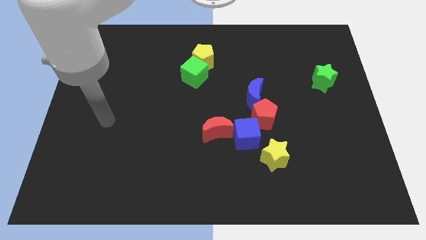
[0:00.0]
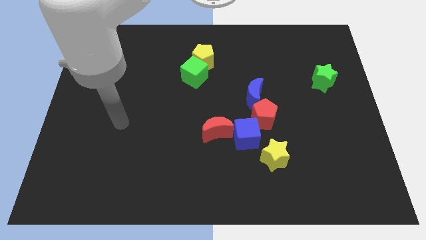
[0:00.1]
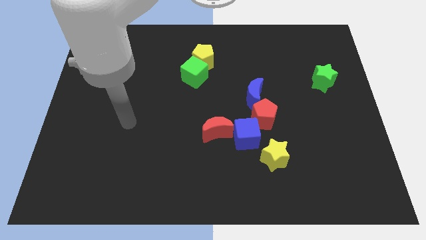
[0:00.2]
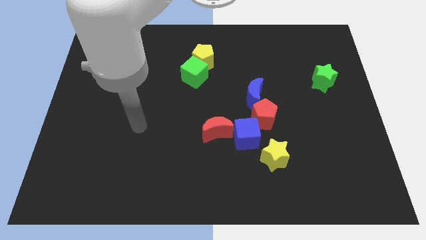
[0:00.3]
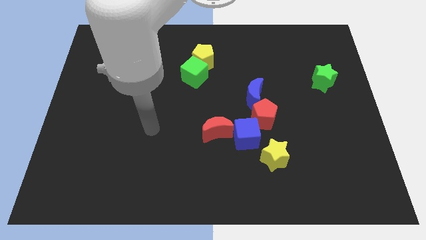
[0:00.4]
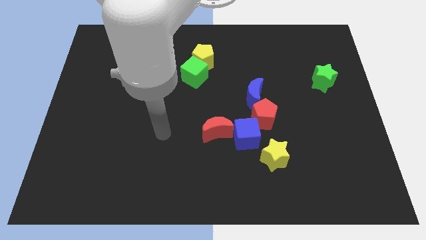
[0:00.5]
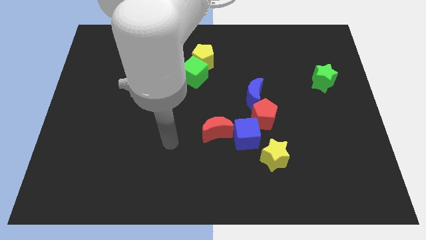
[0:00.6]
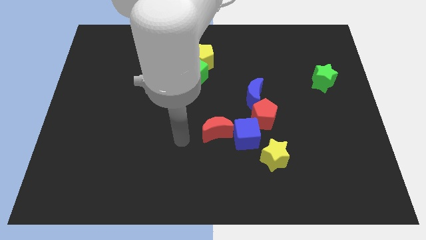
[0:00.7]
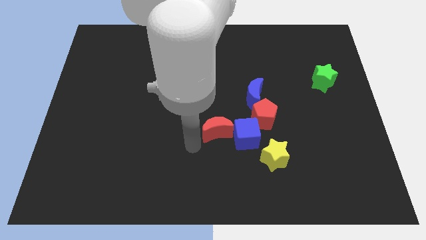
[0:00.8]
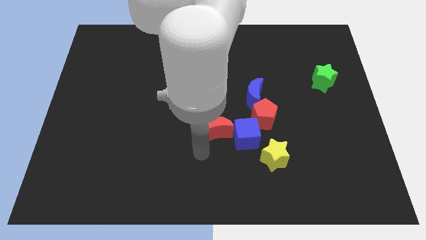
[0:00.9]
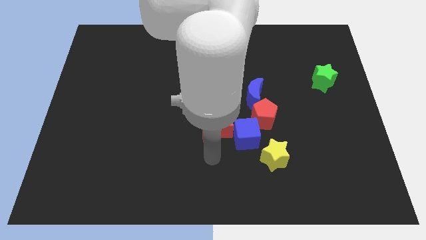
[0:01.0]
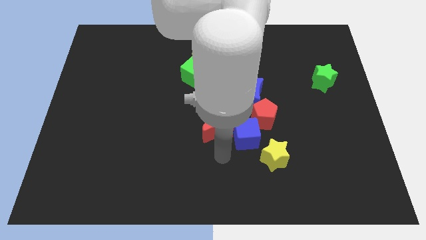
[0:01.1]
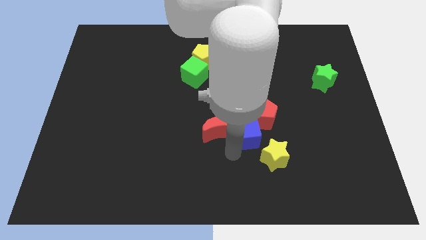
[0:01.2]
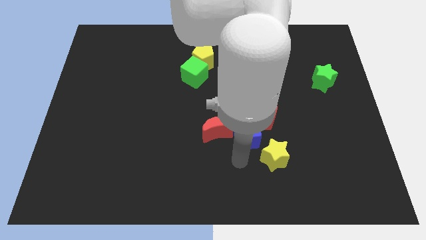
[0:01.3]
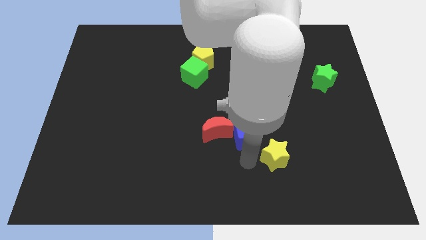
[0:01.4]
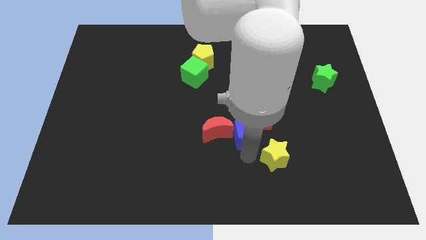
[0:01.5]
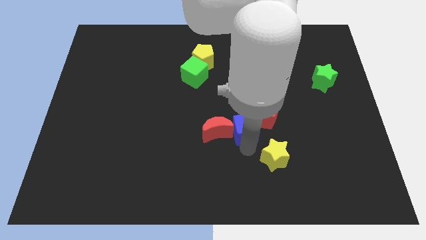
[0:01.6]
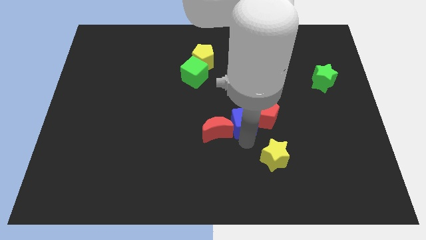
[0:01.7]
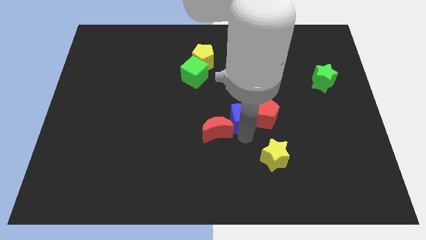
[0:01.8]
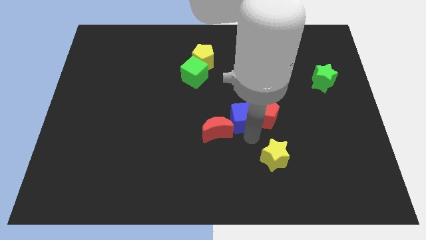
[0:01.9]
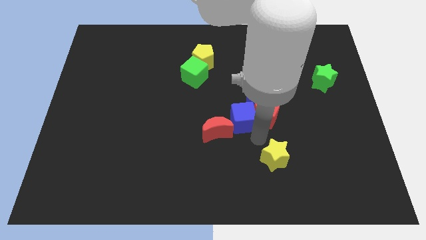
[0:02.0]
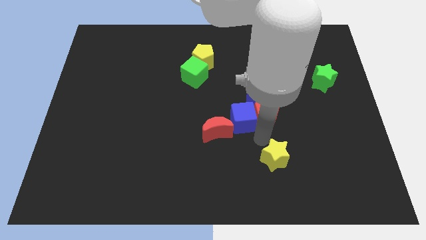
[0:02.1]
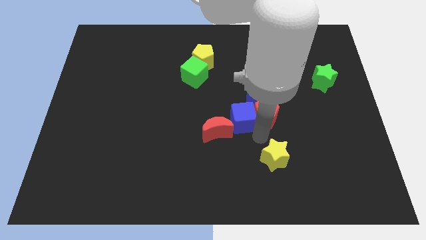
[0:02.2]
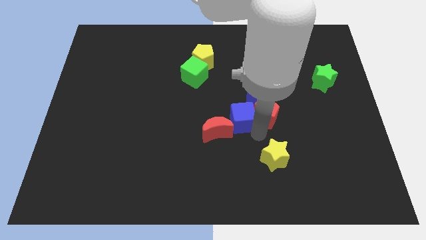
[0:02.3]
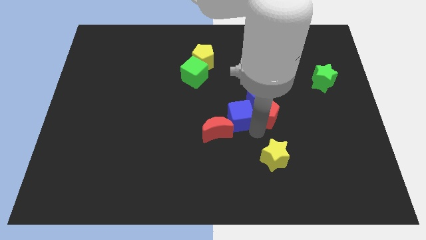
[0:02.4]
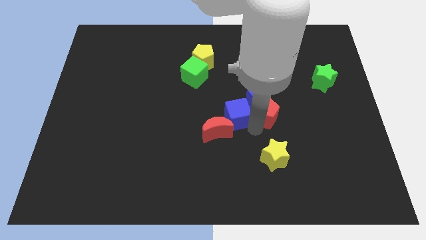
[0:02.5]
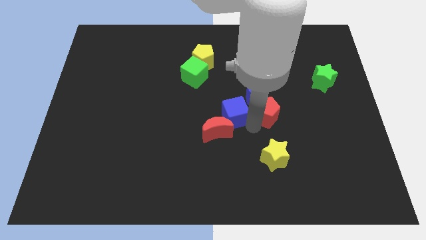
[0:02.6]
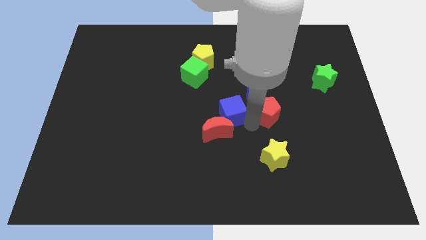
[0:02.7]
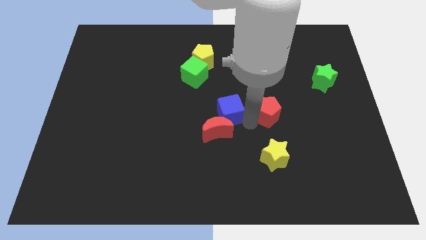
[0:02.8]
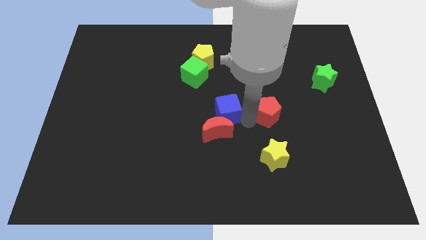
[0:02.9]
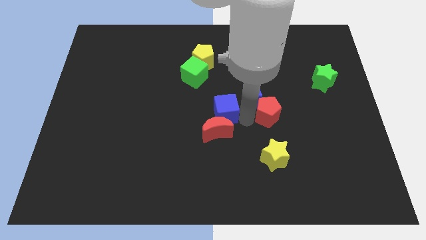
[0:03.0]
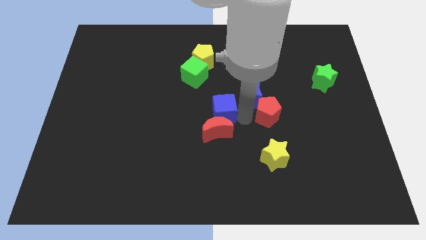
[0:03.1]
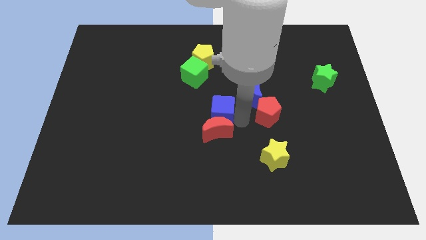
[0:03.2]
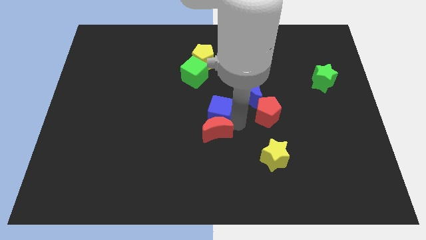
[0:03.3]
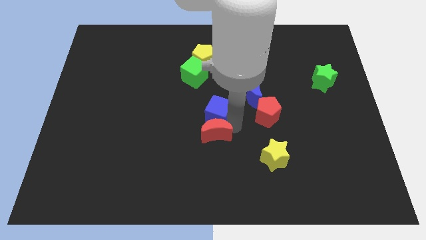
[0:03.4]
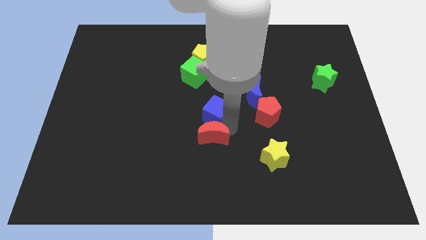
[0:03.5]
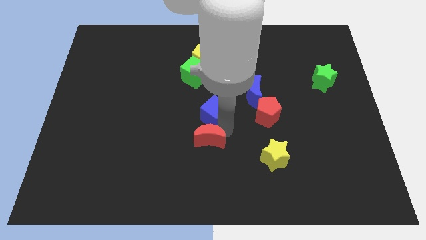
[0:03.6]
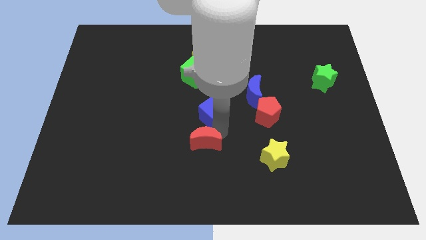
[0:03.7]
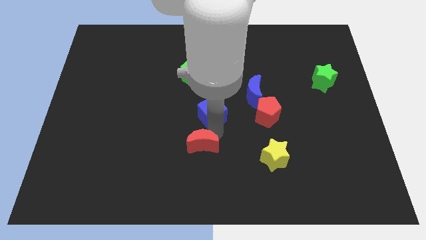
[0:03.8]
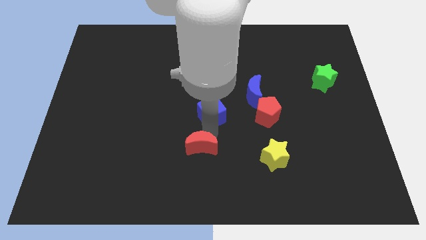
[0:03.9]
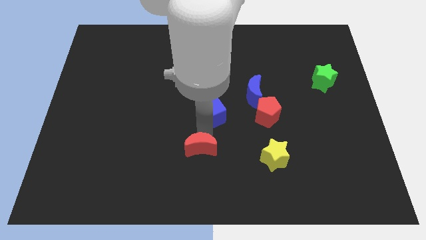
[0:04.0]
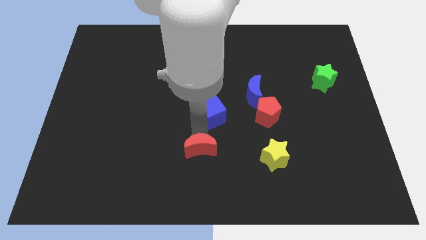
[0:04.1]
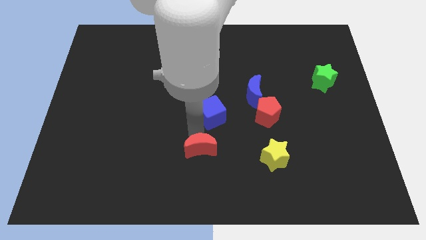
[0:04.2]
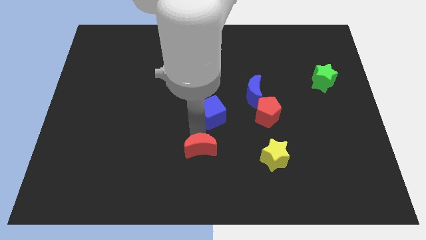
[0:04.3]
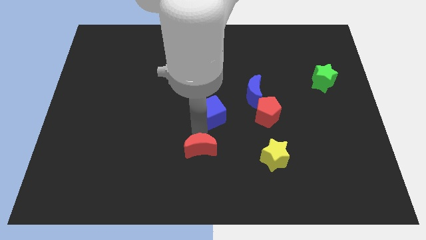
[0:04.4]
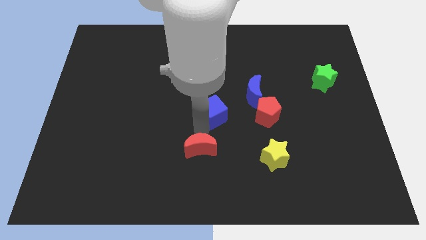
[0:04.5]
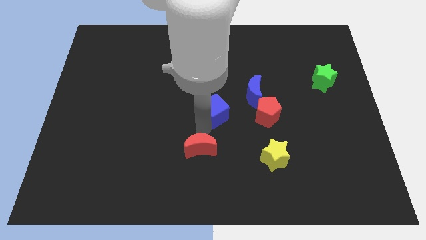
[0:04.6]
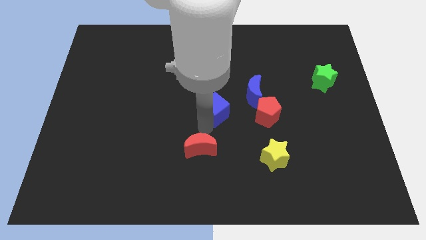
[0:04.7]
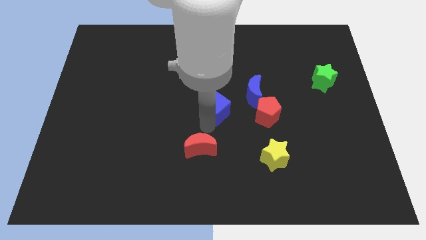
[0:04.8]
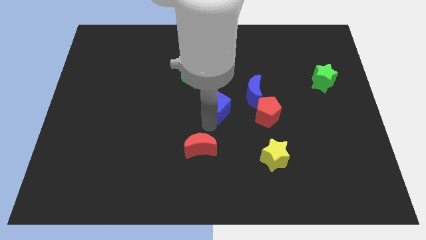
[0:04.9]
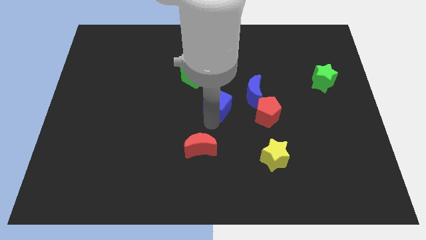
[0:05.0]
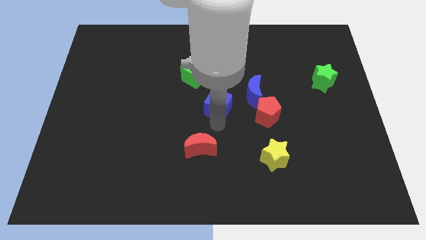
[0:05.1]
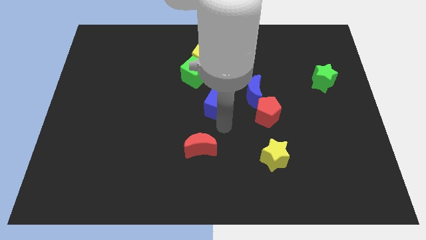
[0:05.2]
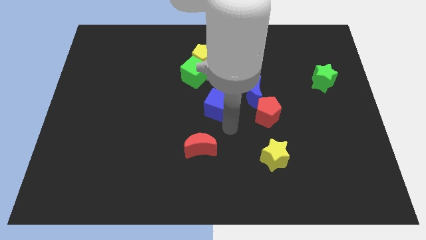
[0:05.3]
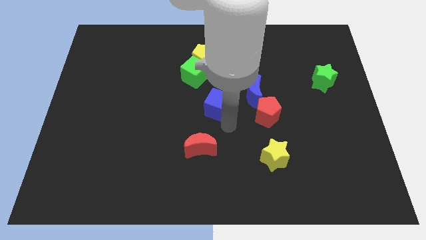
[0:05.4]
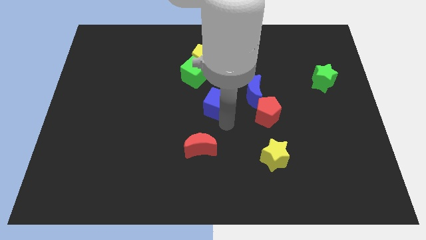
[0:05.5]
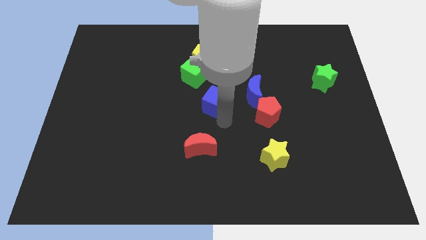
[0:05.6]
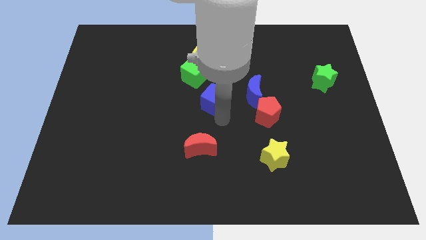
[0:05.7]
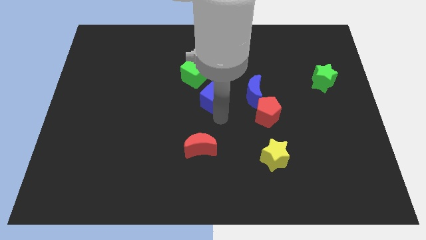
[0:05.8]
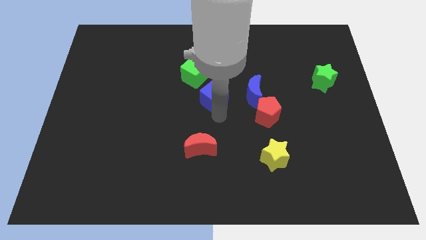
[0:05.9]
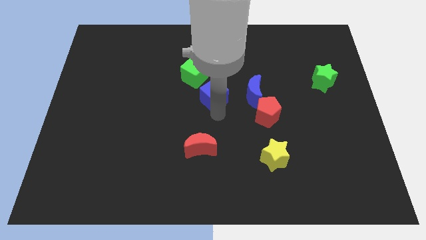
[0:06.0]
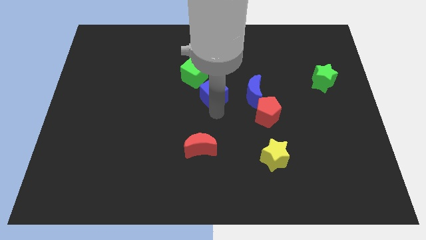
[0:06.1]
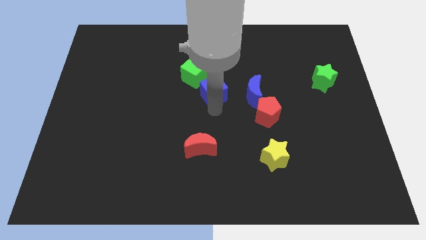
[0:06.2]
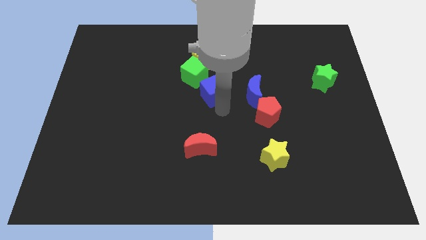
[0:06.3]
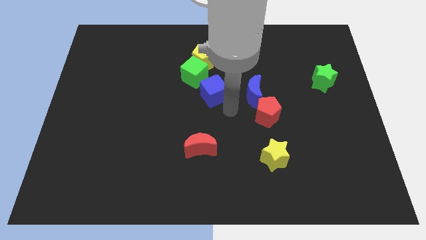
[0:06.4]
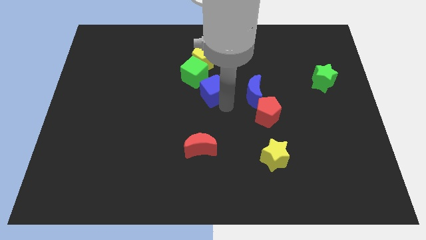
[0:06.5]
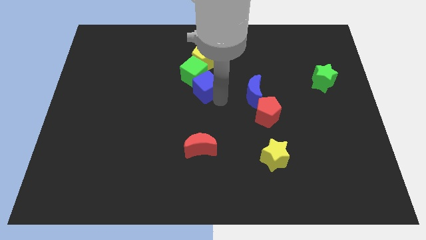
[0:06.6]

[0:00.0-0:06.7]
move the blue cube close to the green cube
